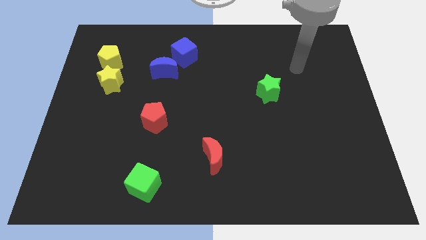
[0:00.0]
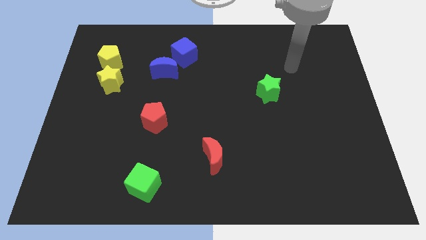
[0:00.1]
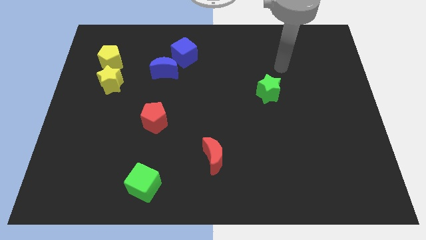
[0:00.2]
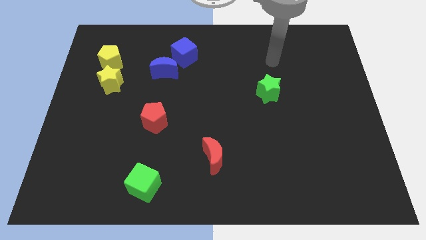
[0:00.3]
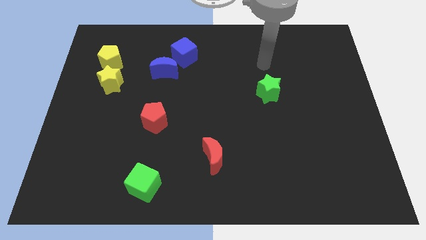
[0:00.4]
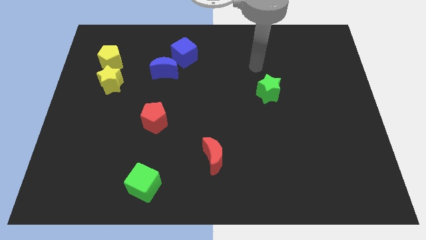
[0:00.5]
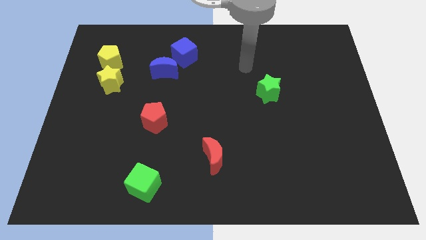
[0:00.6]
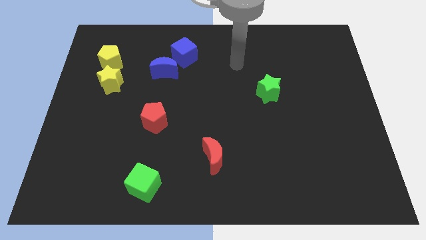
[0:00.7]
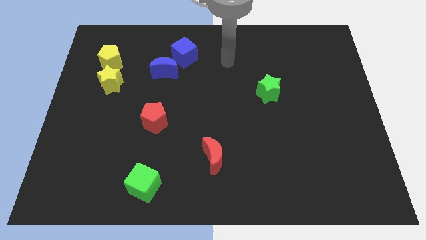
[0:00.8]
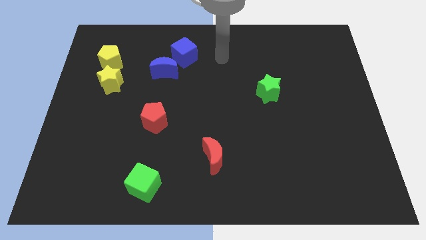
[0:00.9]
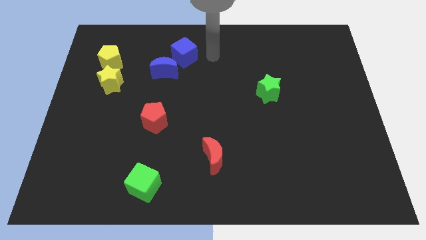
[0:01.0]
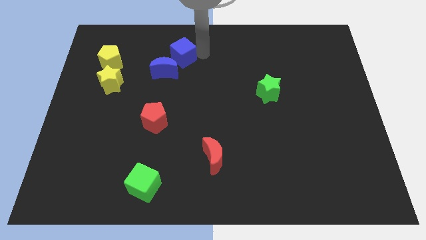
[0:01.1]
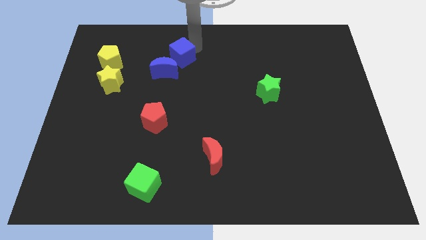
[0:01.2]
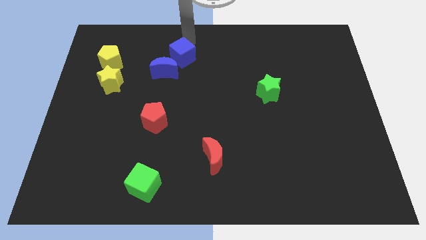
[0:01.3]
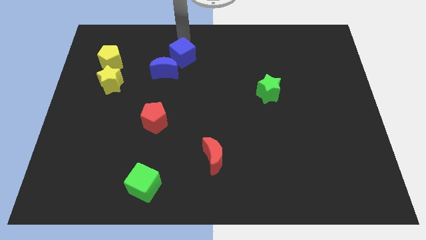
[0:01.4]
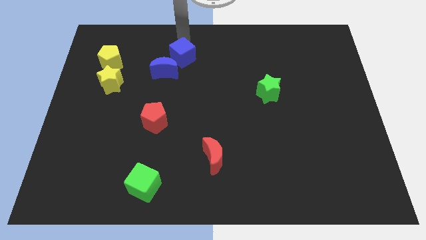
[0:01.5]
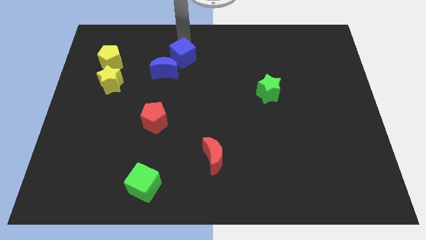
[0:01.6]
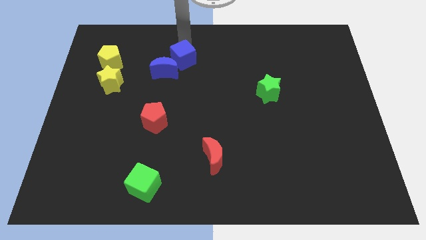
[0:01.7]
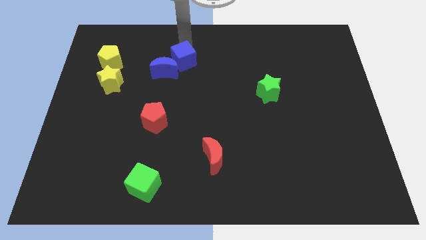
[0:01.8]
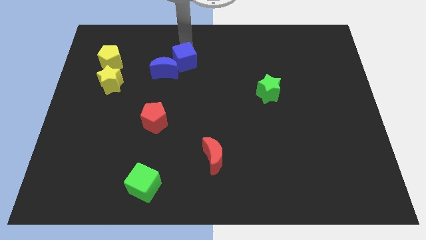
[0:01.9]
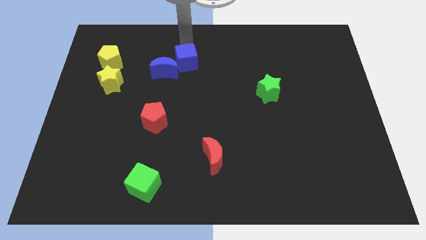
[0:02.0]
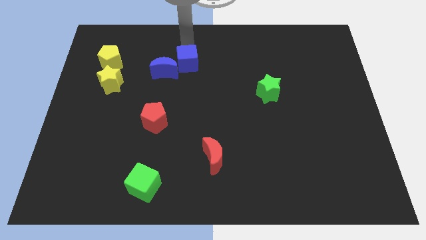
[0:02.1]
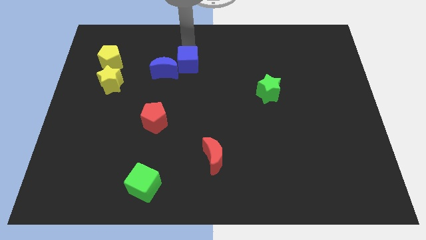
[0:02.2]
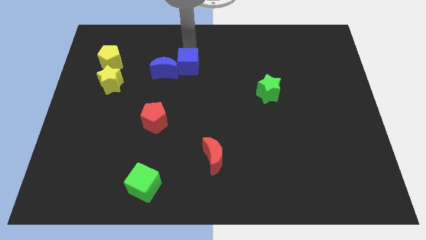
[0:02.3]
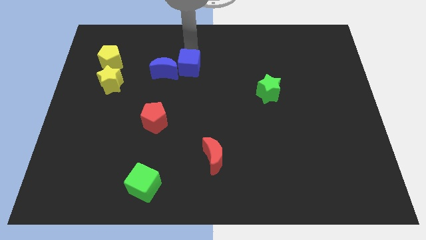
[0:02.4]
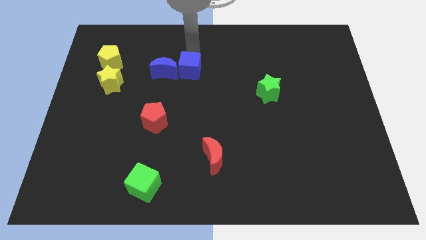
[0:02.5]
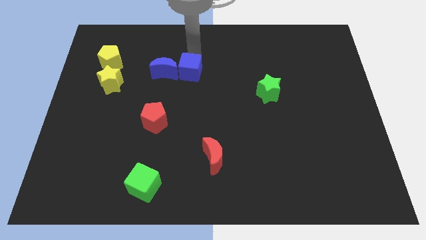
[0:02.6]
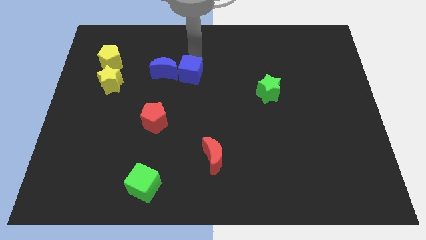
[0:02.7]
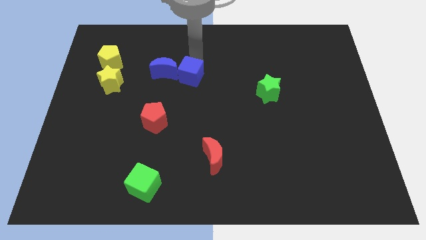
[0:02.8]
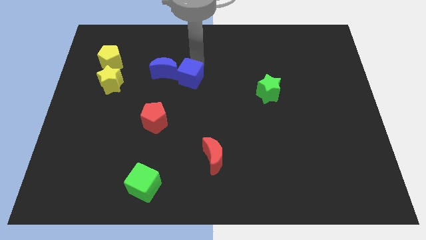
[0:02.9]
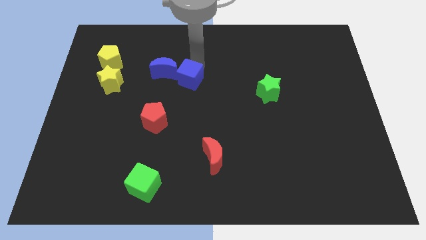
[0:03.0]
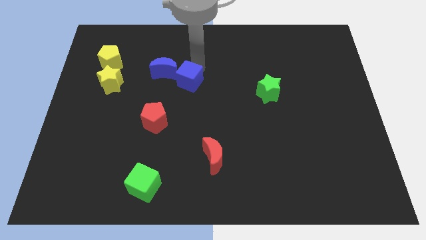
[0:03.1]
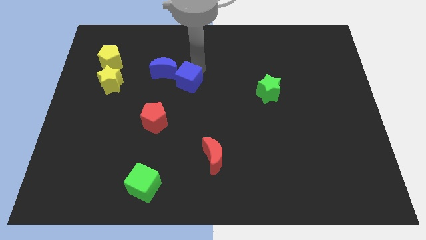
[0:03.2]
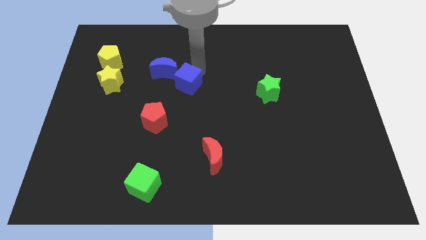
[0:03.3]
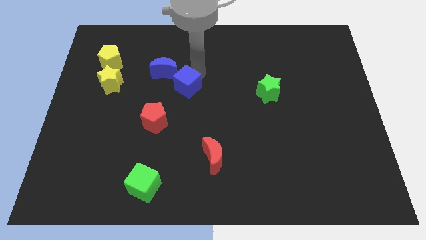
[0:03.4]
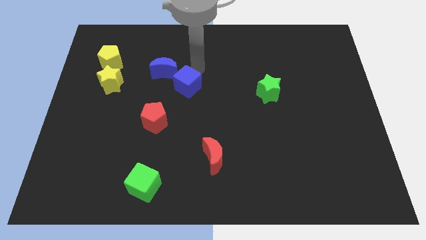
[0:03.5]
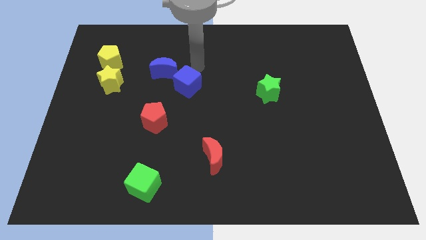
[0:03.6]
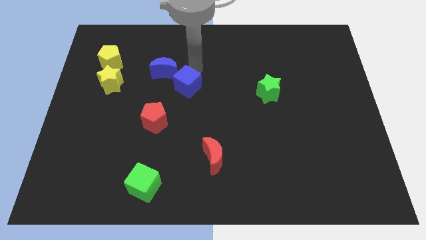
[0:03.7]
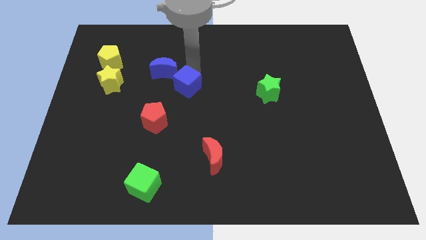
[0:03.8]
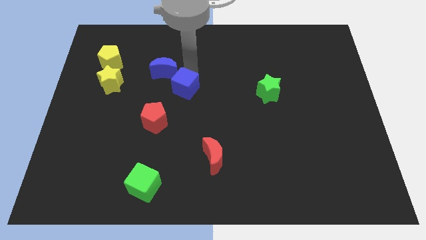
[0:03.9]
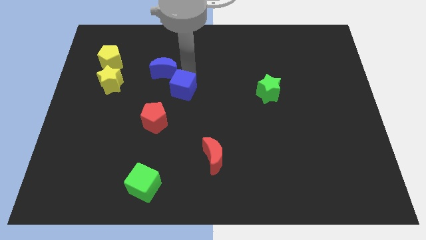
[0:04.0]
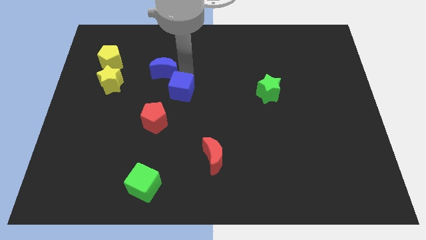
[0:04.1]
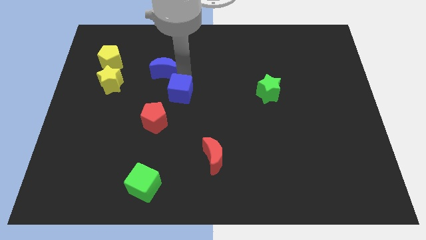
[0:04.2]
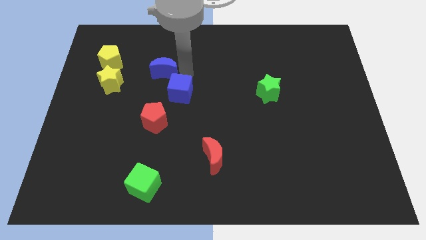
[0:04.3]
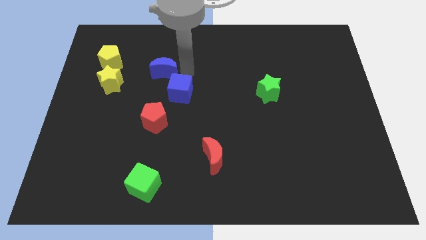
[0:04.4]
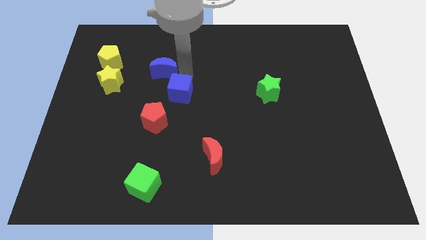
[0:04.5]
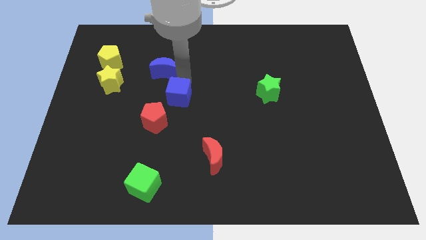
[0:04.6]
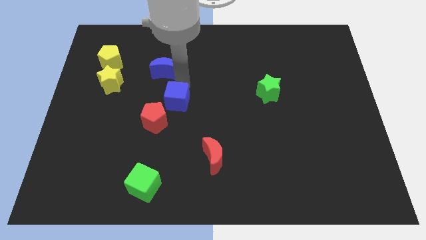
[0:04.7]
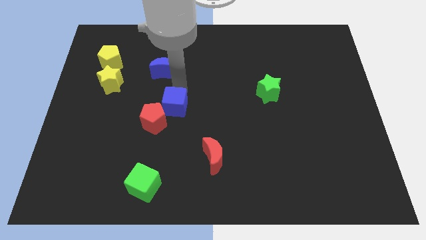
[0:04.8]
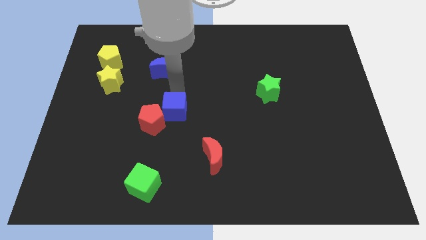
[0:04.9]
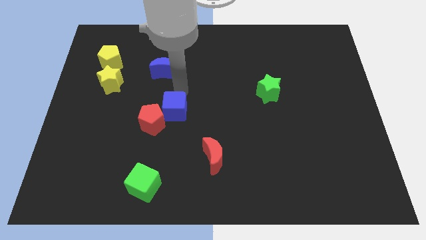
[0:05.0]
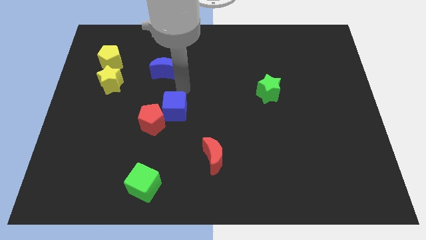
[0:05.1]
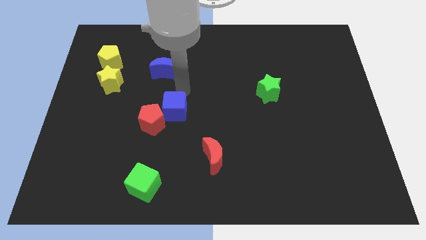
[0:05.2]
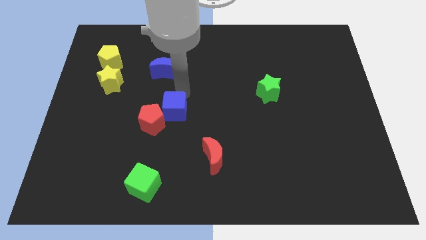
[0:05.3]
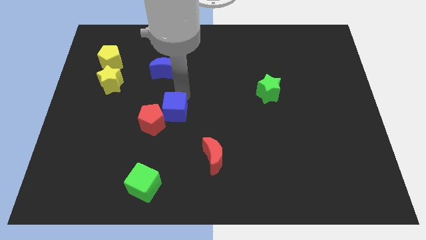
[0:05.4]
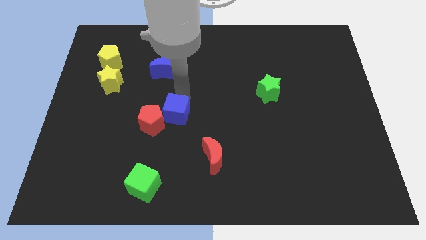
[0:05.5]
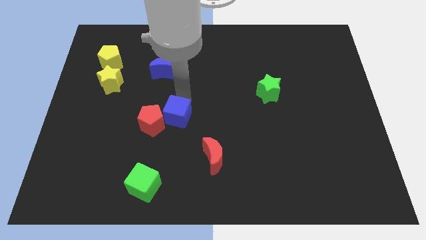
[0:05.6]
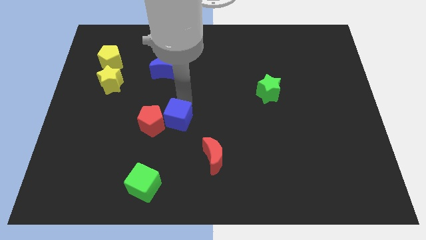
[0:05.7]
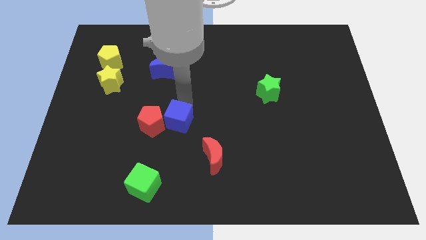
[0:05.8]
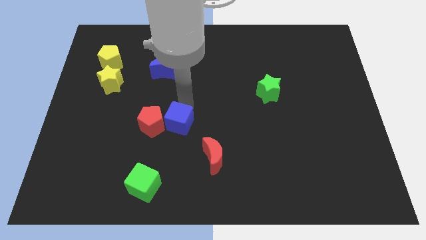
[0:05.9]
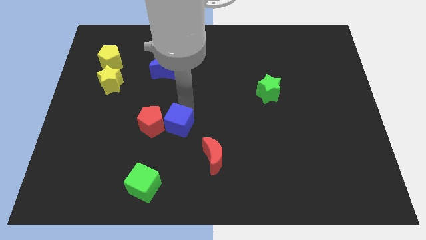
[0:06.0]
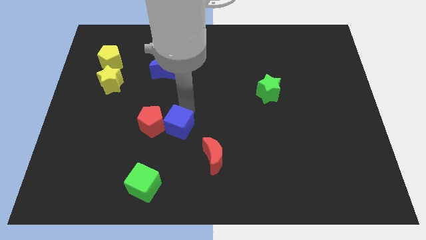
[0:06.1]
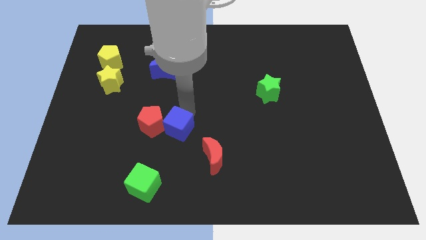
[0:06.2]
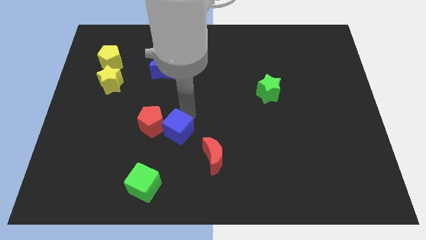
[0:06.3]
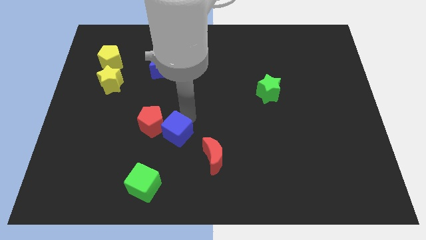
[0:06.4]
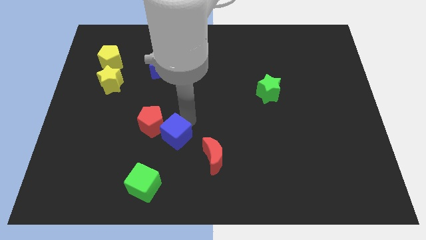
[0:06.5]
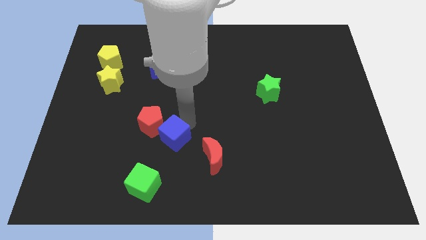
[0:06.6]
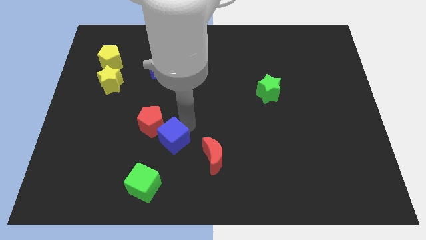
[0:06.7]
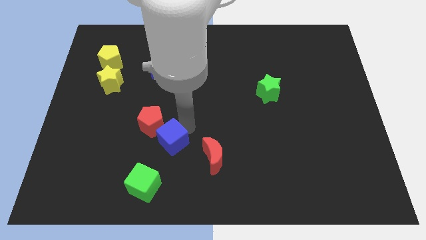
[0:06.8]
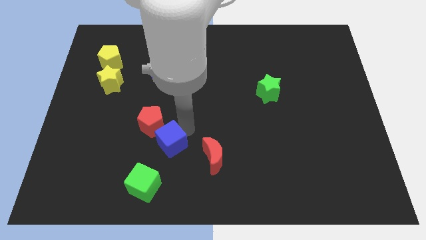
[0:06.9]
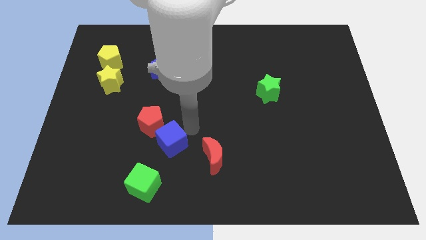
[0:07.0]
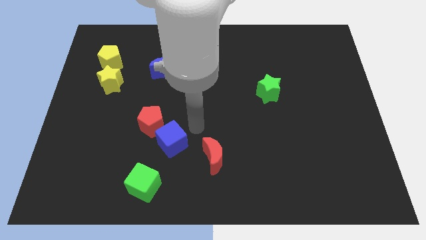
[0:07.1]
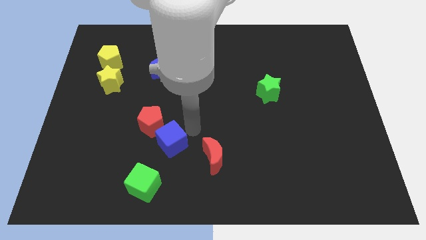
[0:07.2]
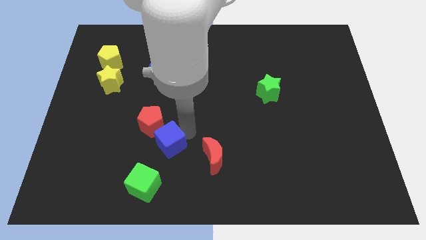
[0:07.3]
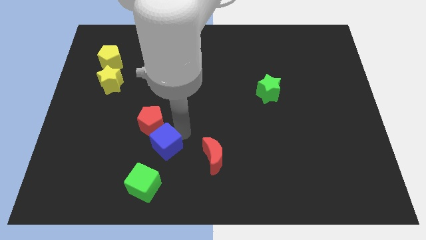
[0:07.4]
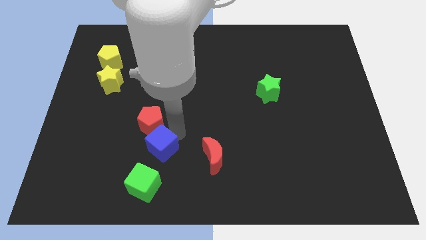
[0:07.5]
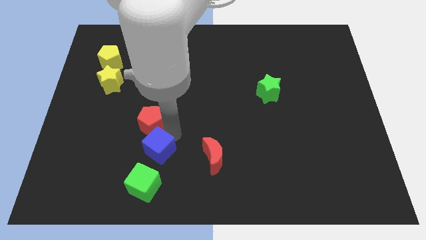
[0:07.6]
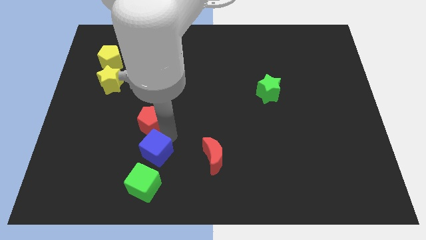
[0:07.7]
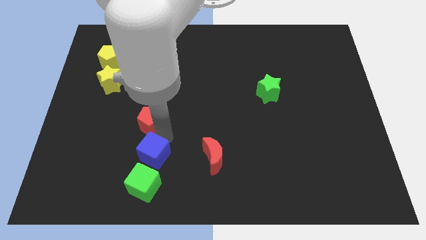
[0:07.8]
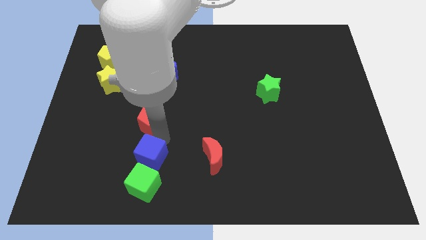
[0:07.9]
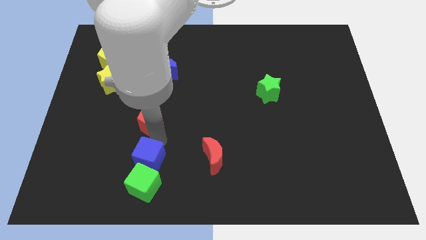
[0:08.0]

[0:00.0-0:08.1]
move the blue cube close to the green cube
